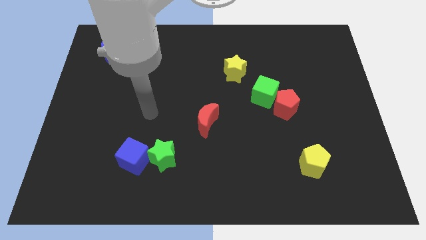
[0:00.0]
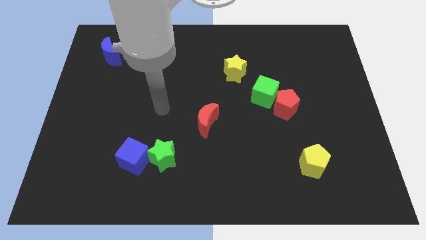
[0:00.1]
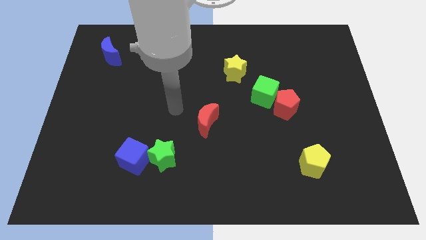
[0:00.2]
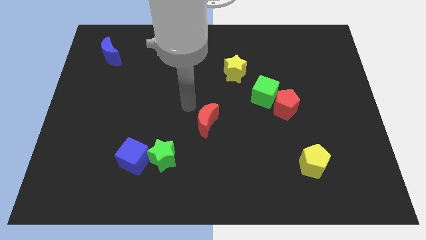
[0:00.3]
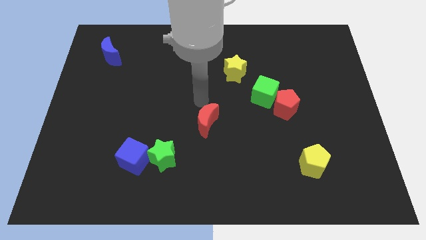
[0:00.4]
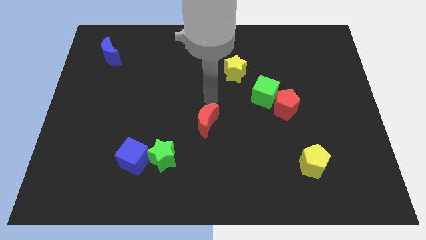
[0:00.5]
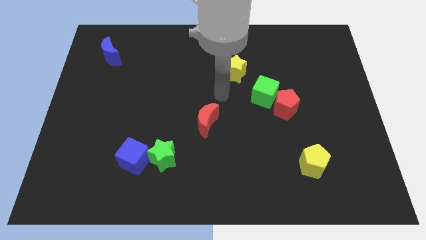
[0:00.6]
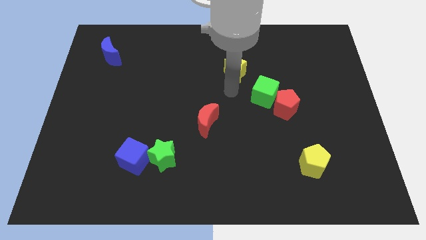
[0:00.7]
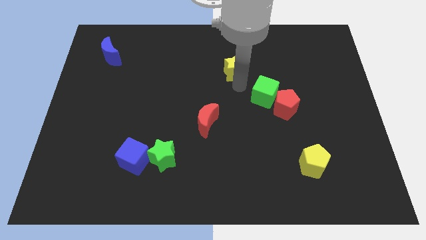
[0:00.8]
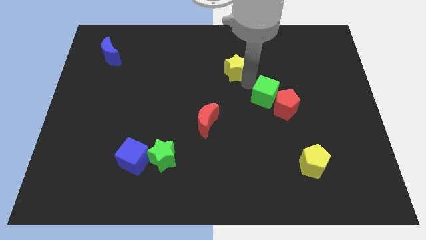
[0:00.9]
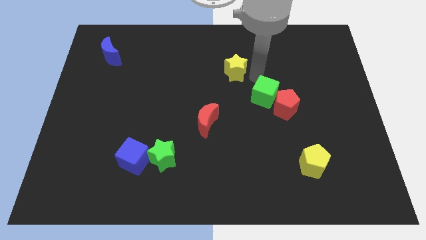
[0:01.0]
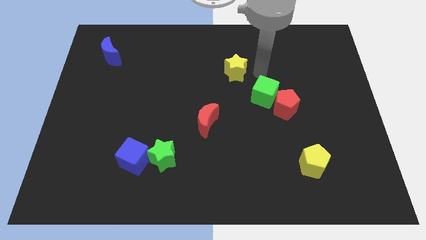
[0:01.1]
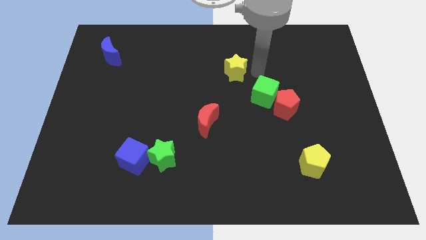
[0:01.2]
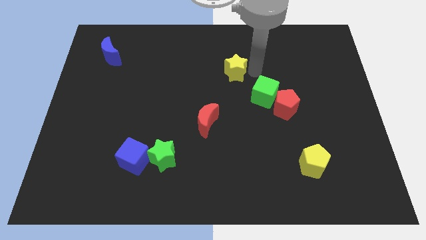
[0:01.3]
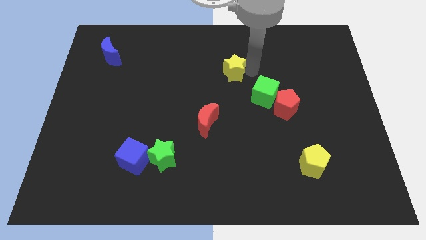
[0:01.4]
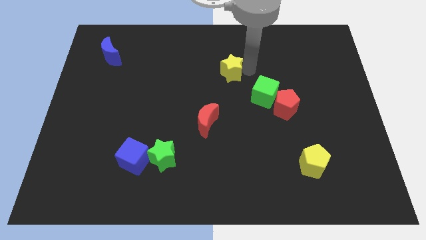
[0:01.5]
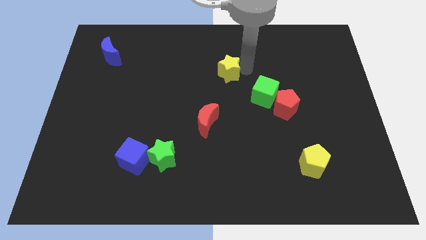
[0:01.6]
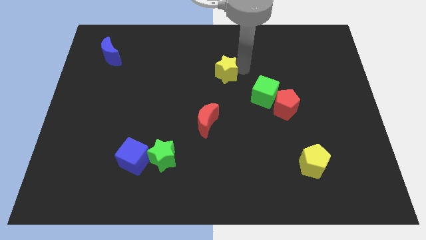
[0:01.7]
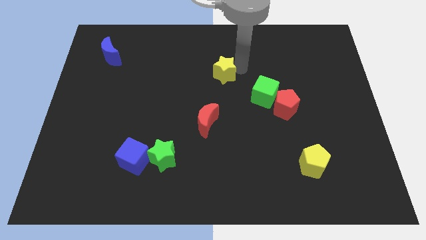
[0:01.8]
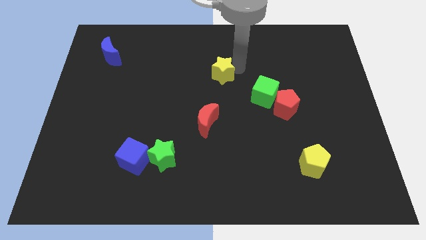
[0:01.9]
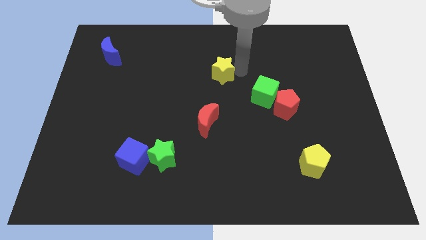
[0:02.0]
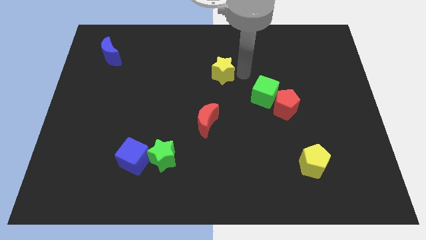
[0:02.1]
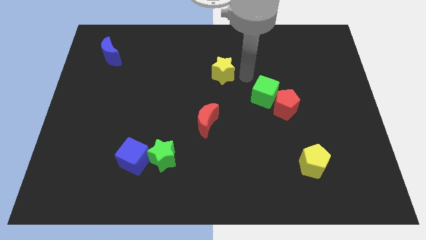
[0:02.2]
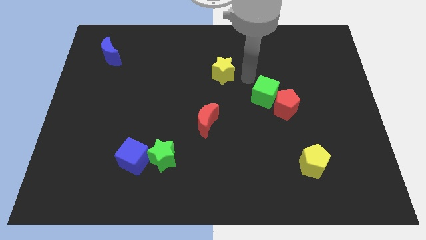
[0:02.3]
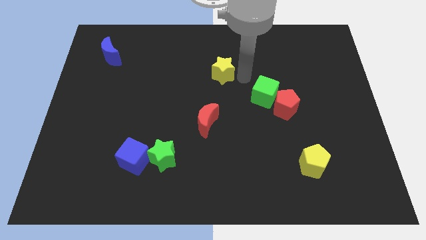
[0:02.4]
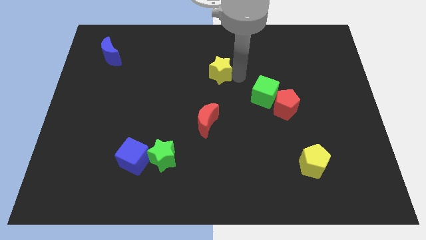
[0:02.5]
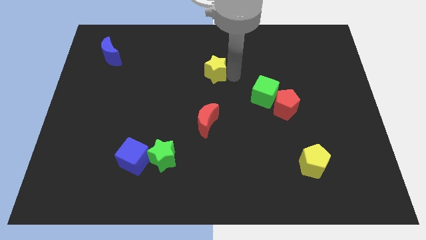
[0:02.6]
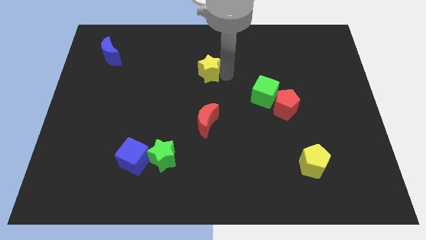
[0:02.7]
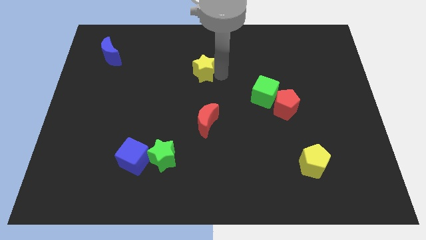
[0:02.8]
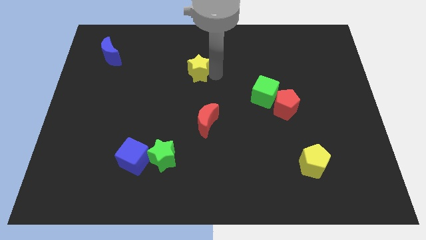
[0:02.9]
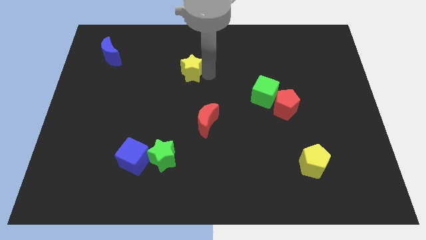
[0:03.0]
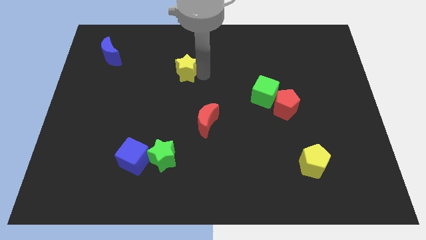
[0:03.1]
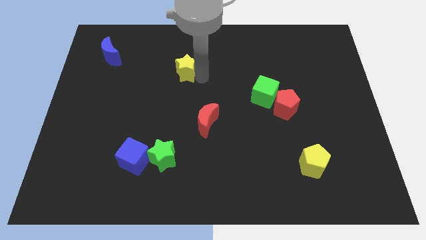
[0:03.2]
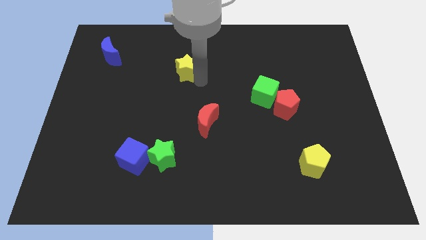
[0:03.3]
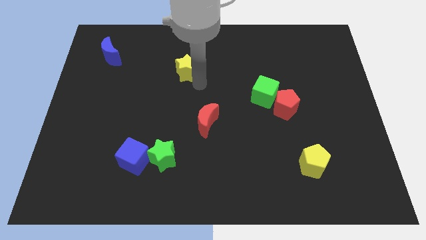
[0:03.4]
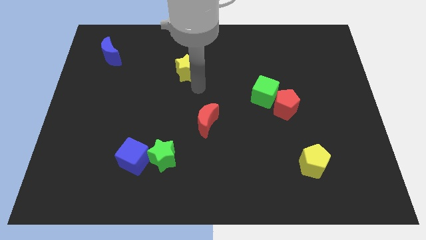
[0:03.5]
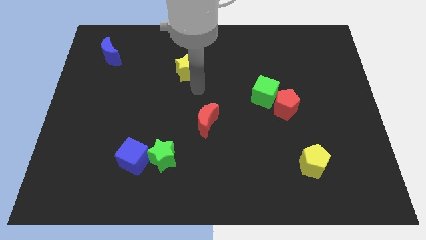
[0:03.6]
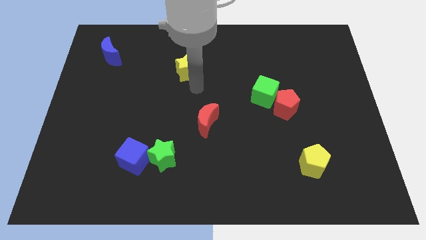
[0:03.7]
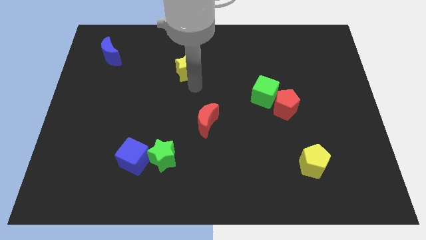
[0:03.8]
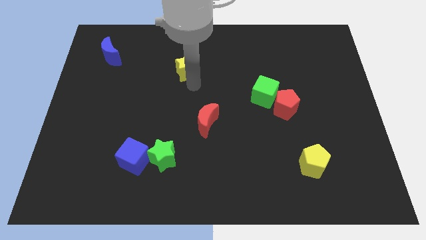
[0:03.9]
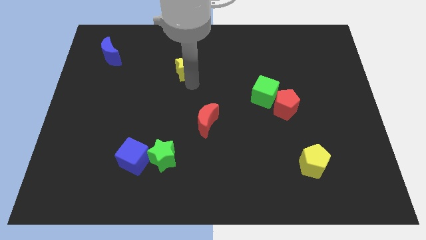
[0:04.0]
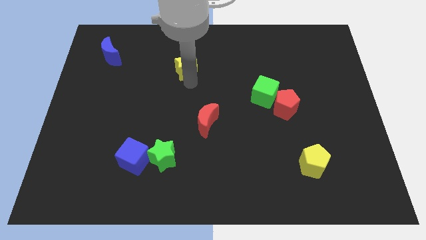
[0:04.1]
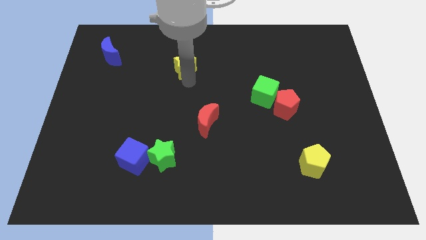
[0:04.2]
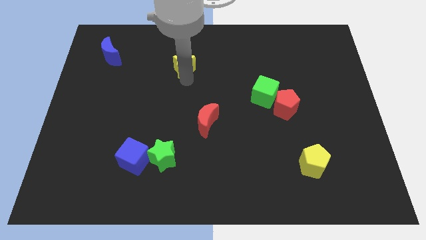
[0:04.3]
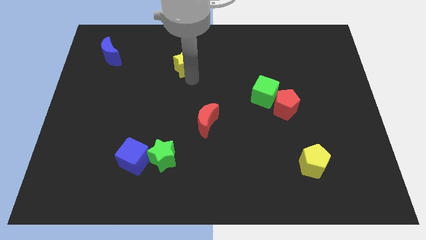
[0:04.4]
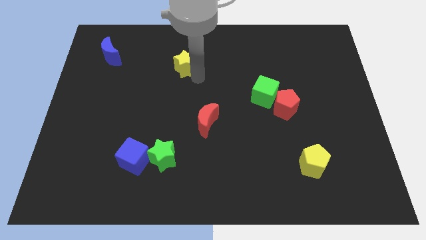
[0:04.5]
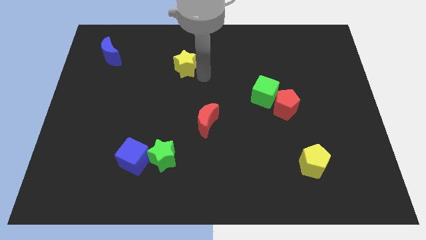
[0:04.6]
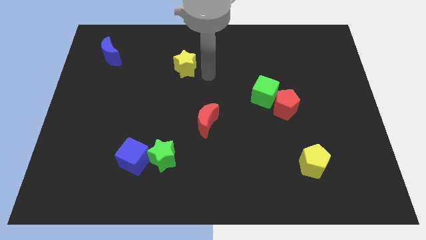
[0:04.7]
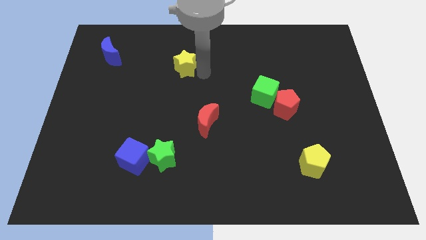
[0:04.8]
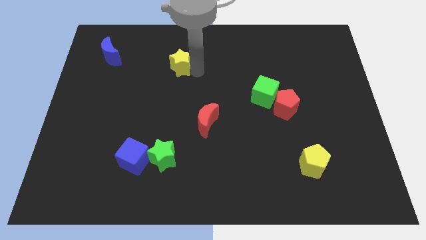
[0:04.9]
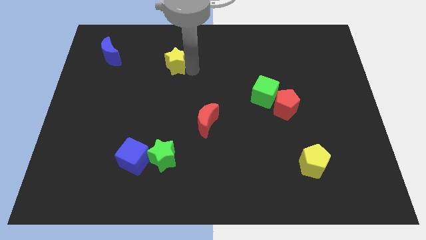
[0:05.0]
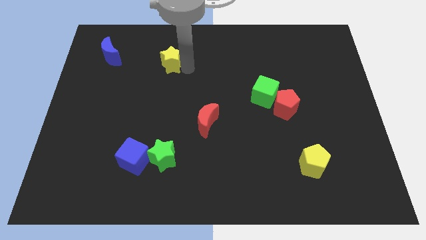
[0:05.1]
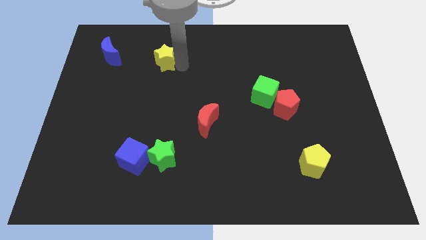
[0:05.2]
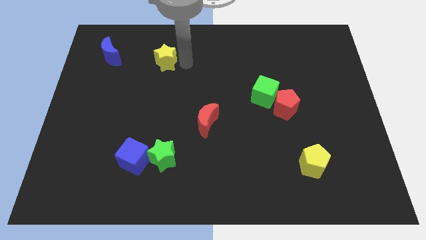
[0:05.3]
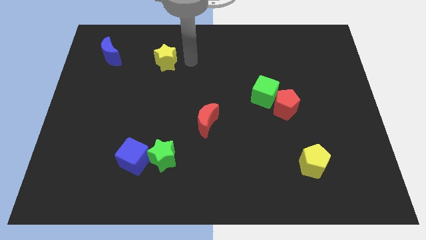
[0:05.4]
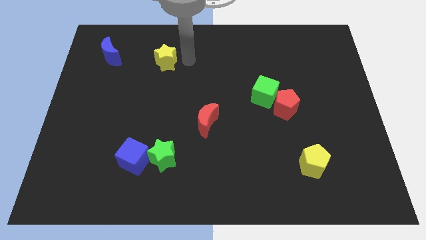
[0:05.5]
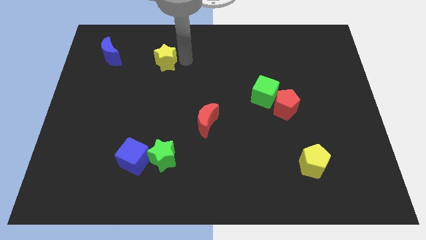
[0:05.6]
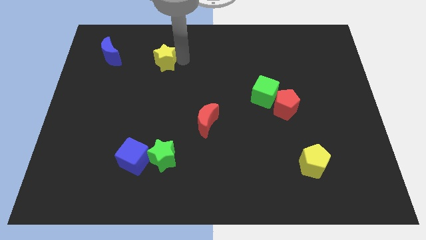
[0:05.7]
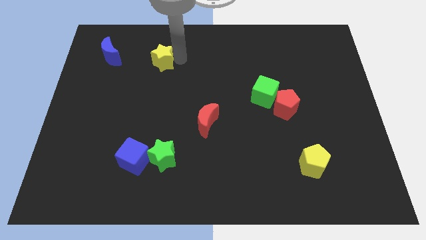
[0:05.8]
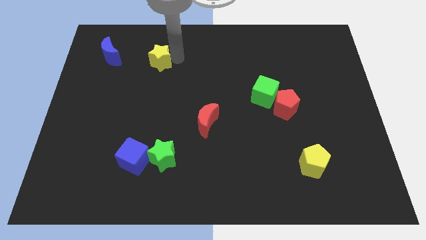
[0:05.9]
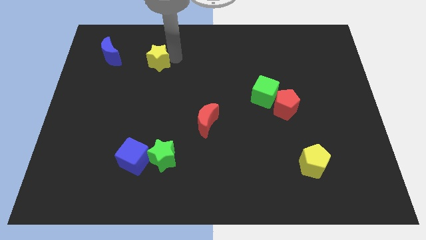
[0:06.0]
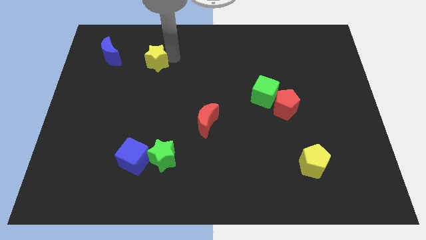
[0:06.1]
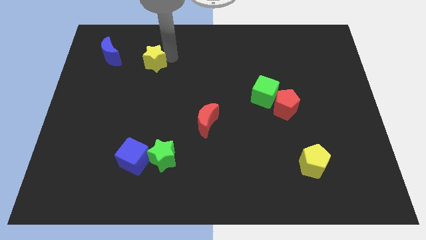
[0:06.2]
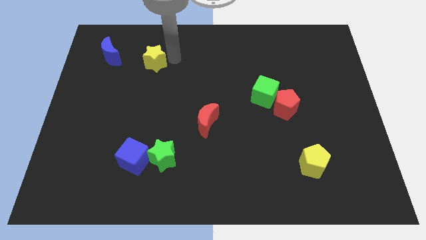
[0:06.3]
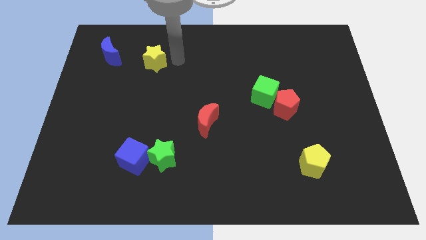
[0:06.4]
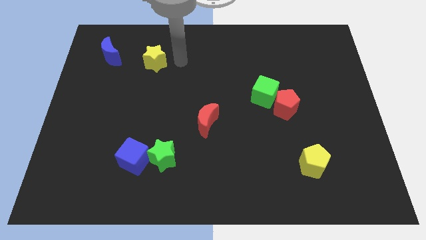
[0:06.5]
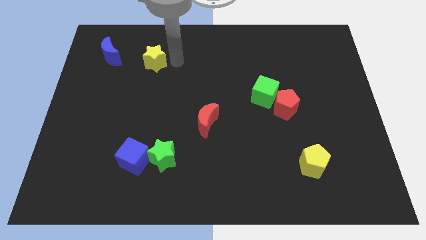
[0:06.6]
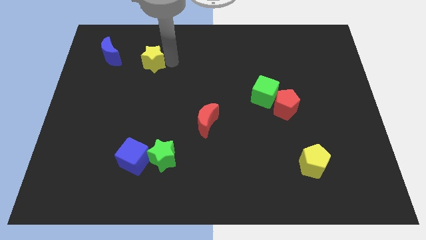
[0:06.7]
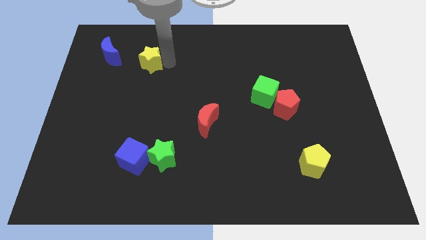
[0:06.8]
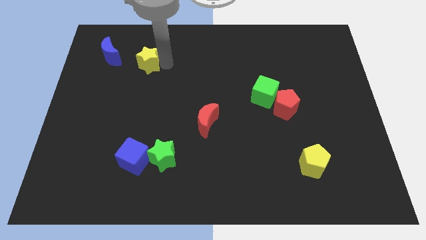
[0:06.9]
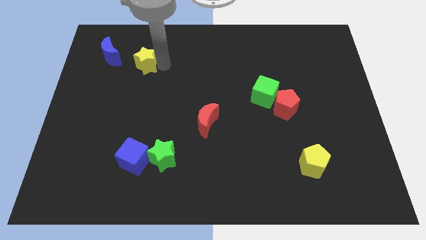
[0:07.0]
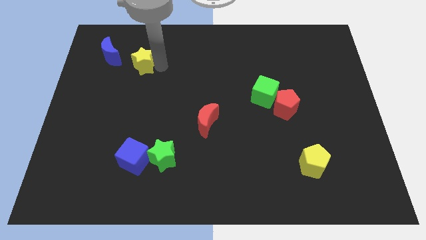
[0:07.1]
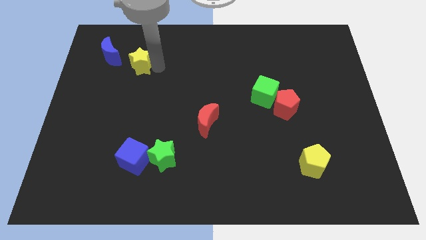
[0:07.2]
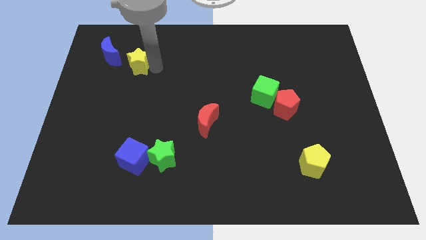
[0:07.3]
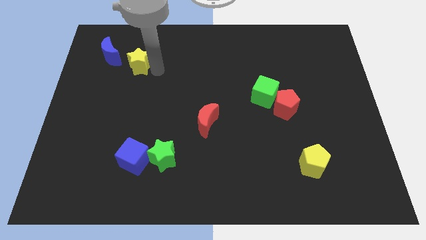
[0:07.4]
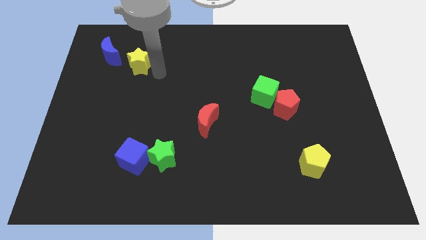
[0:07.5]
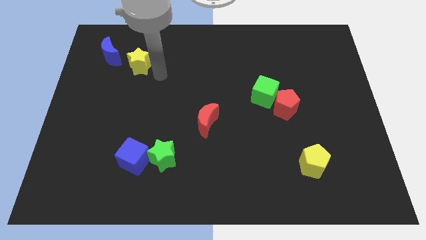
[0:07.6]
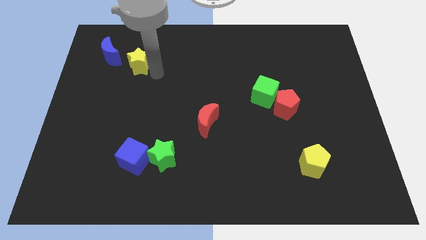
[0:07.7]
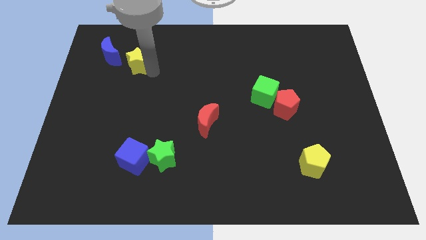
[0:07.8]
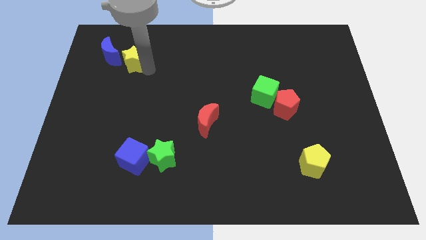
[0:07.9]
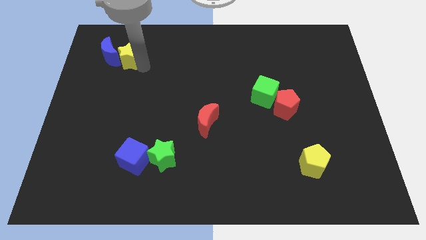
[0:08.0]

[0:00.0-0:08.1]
push the yellow star towards the blue moon
